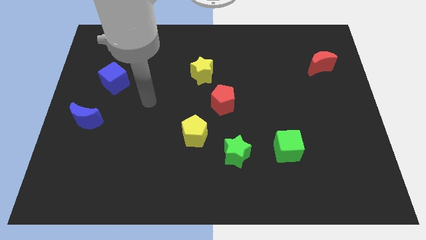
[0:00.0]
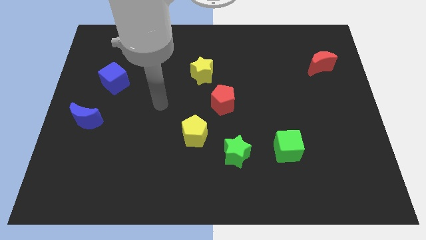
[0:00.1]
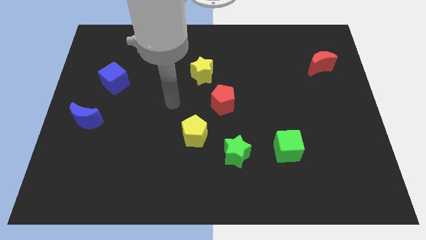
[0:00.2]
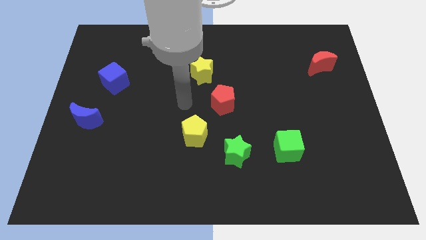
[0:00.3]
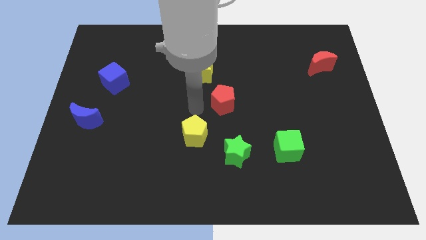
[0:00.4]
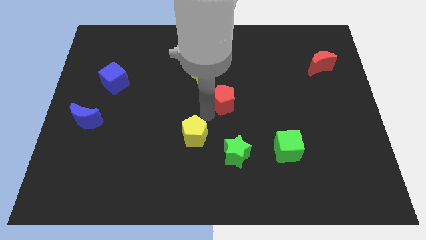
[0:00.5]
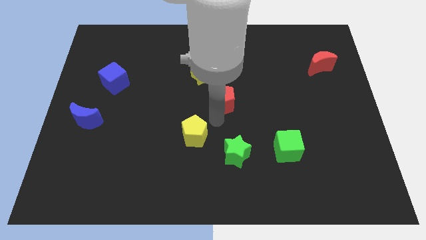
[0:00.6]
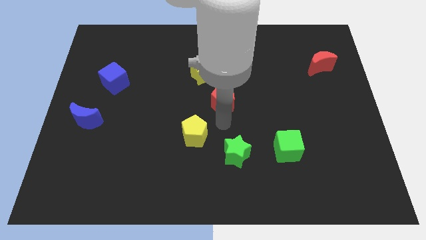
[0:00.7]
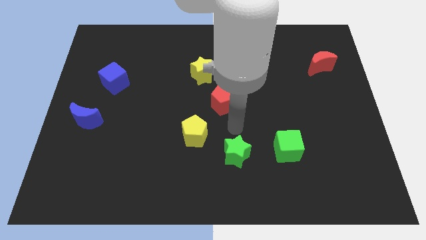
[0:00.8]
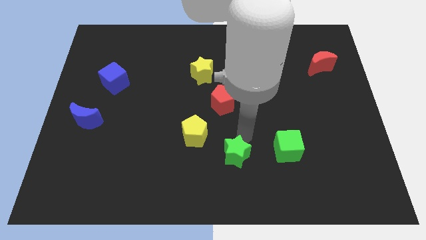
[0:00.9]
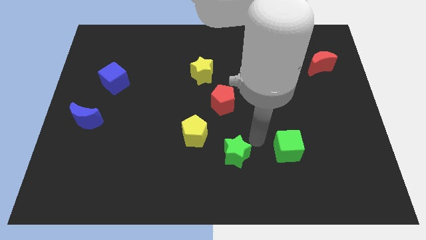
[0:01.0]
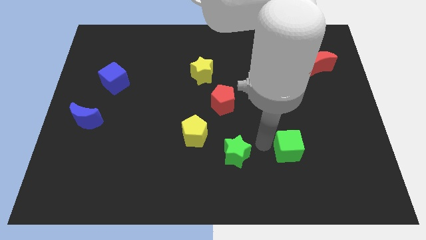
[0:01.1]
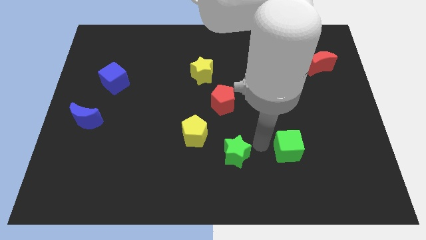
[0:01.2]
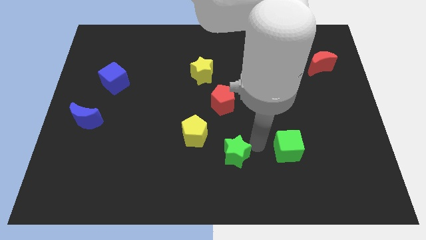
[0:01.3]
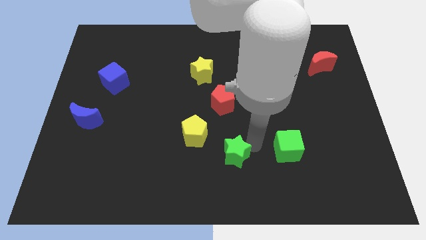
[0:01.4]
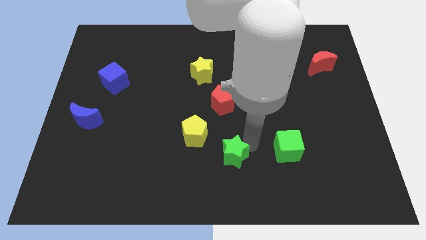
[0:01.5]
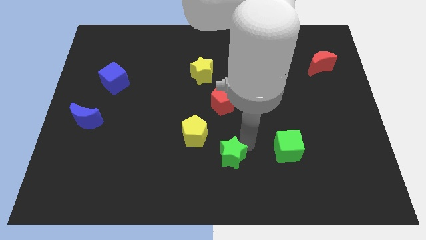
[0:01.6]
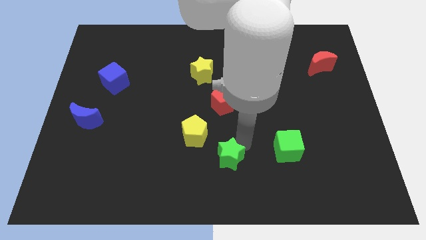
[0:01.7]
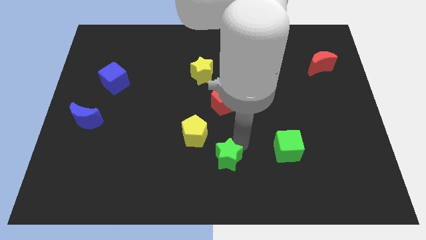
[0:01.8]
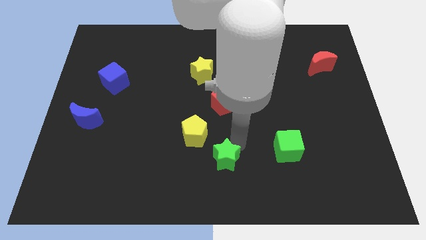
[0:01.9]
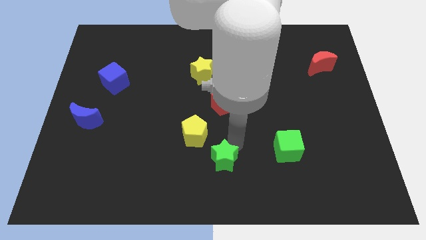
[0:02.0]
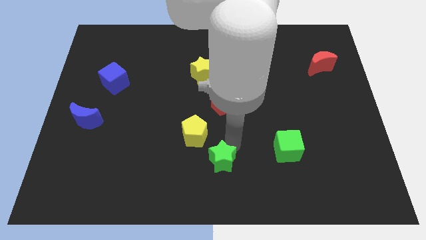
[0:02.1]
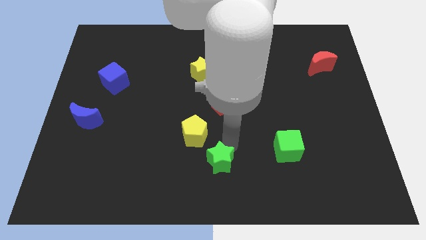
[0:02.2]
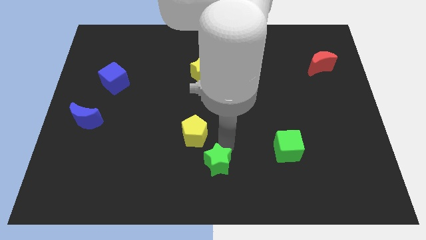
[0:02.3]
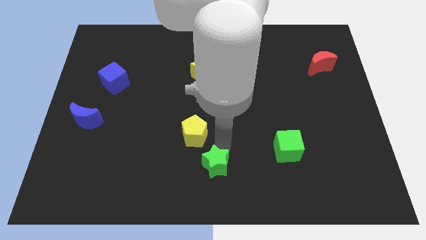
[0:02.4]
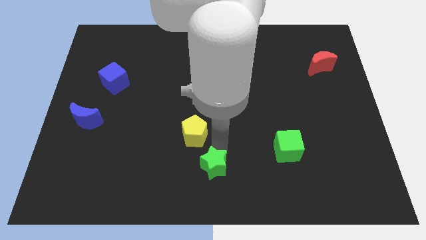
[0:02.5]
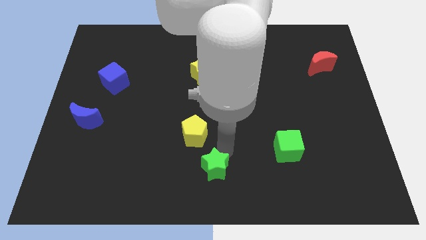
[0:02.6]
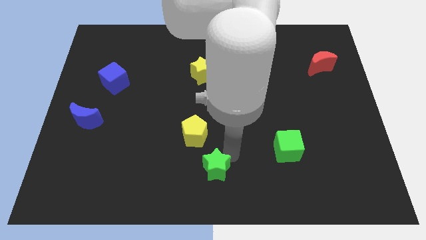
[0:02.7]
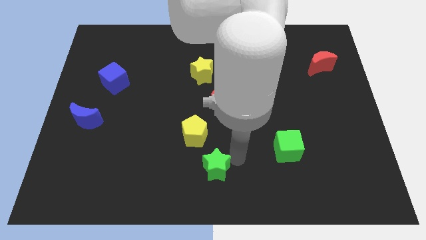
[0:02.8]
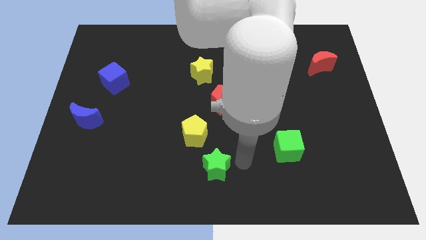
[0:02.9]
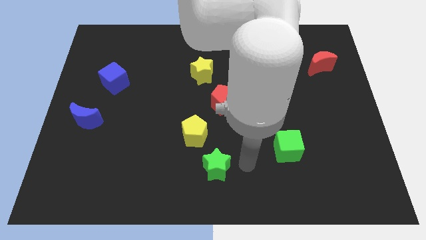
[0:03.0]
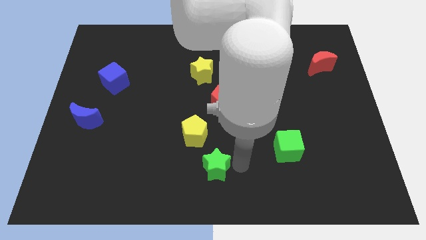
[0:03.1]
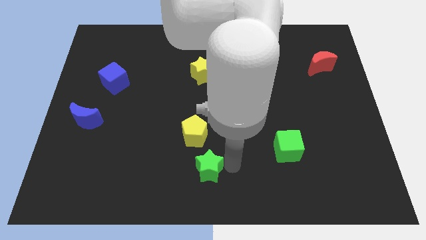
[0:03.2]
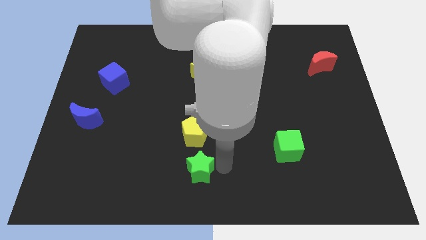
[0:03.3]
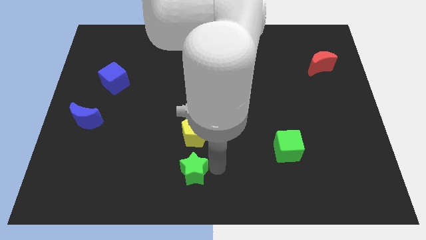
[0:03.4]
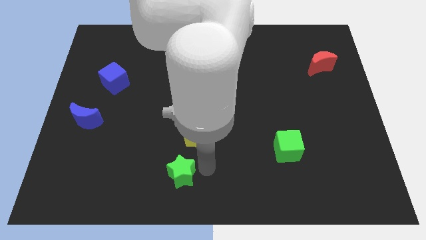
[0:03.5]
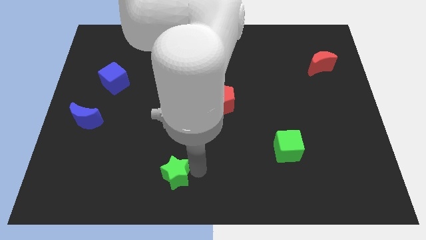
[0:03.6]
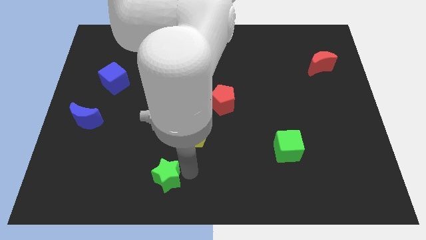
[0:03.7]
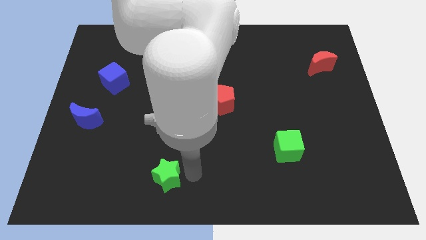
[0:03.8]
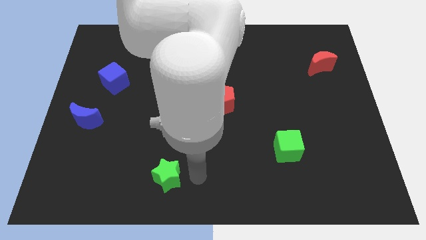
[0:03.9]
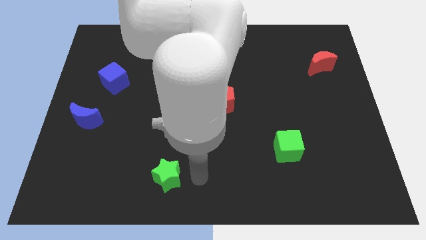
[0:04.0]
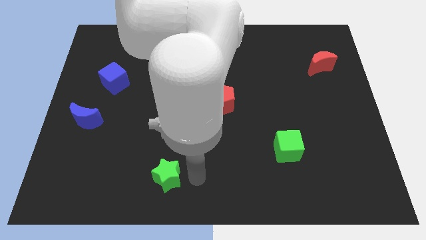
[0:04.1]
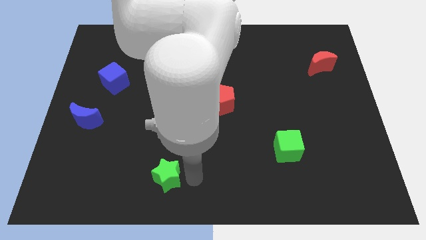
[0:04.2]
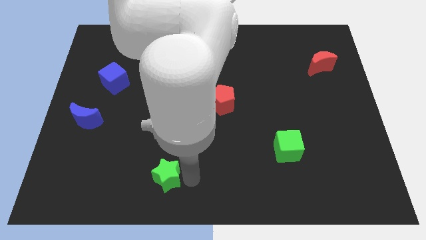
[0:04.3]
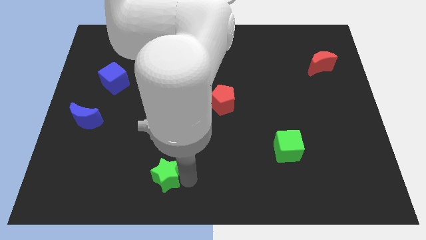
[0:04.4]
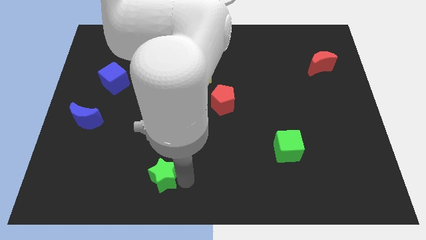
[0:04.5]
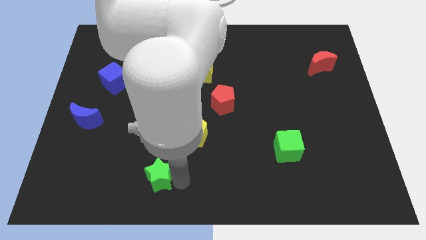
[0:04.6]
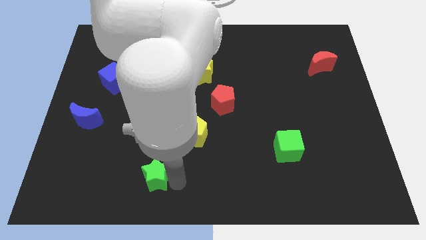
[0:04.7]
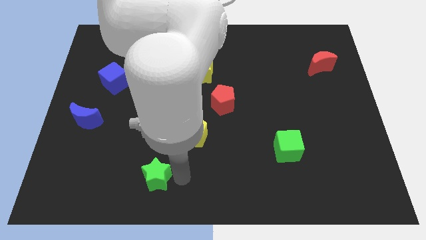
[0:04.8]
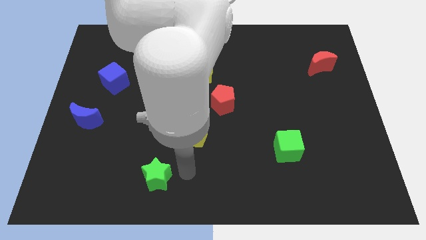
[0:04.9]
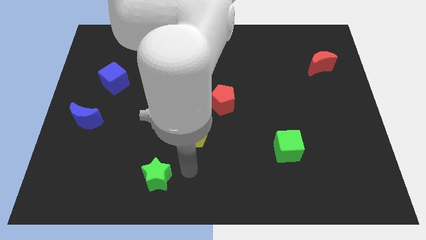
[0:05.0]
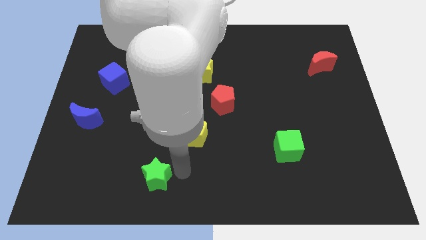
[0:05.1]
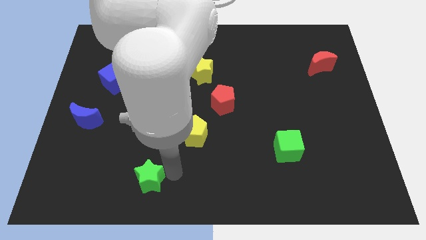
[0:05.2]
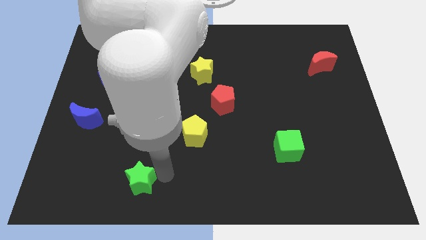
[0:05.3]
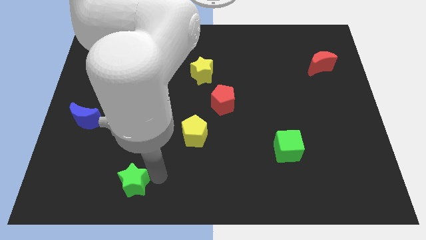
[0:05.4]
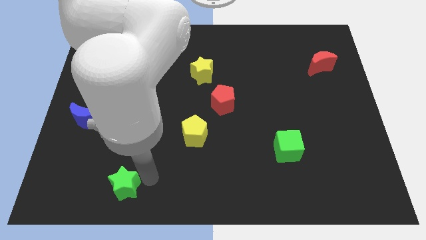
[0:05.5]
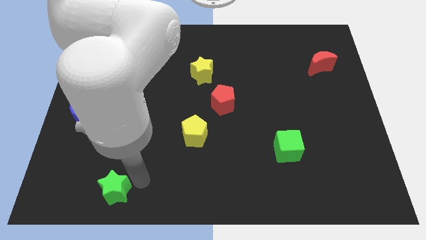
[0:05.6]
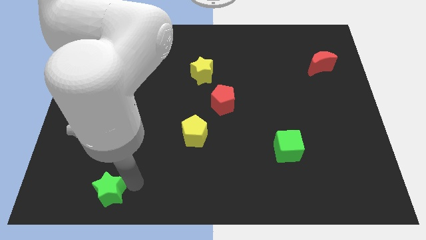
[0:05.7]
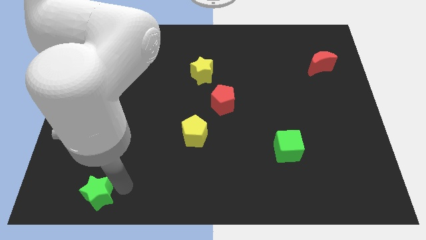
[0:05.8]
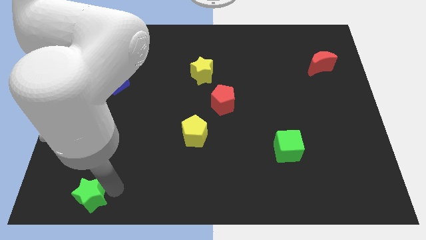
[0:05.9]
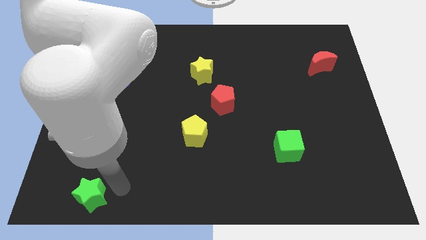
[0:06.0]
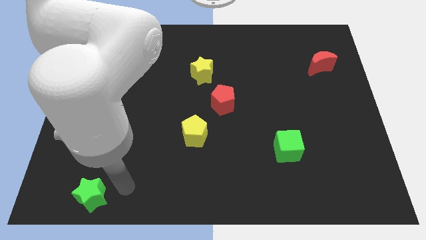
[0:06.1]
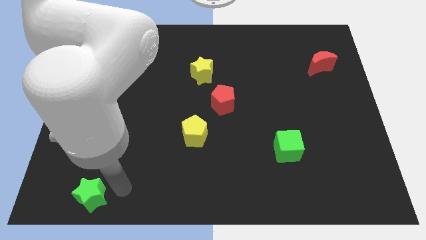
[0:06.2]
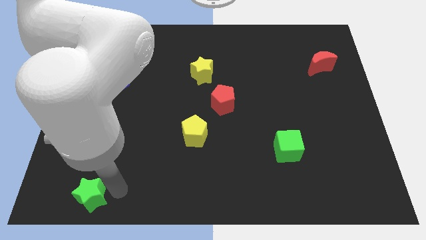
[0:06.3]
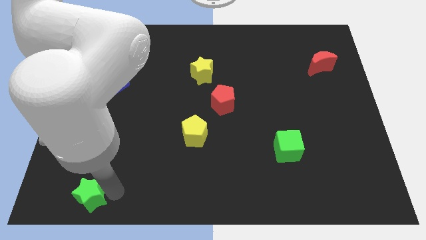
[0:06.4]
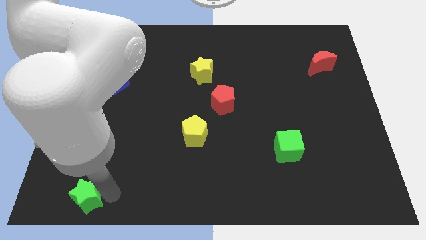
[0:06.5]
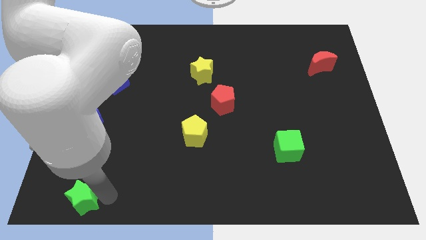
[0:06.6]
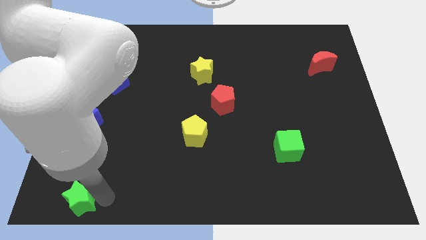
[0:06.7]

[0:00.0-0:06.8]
push the green star to the lower left corner
